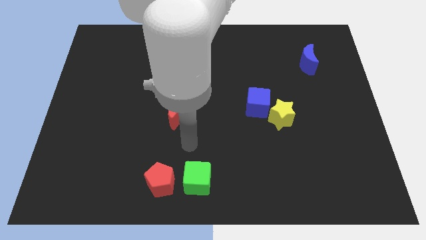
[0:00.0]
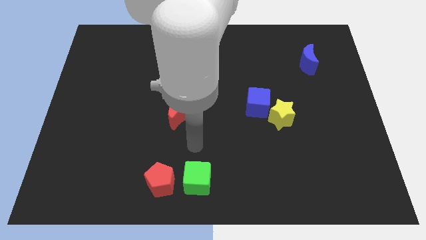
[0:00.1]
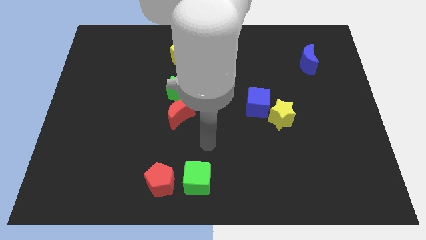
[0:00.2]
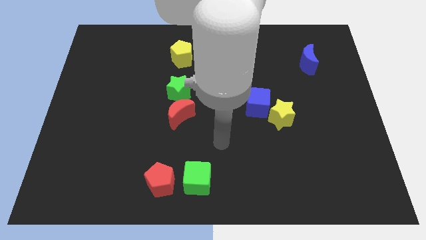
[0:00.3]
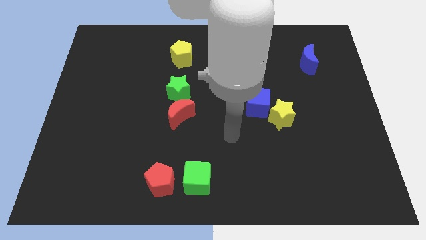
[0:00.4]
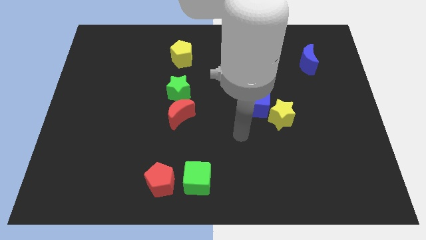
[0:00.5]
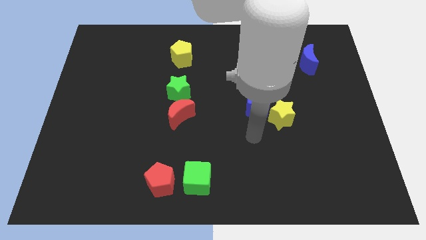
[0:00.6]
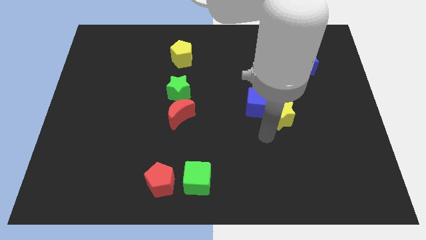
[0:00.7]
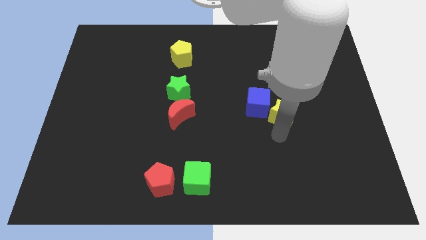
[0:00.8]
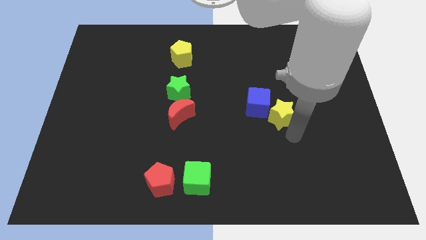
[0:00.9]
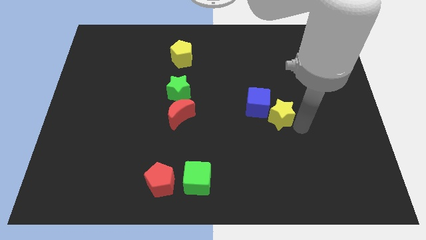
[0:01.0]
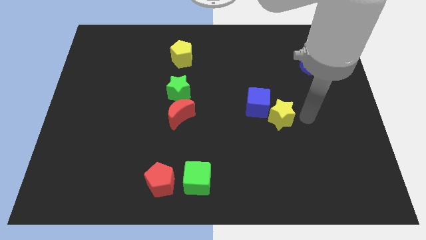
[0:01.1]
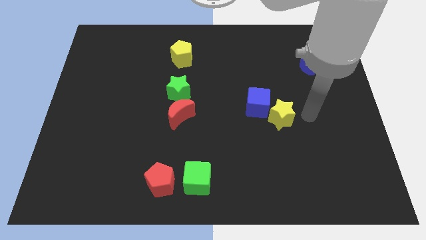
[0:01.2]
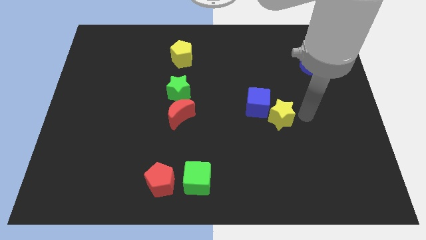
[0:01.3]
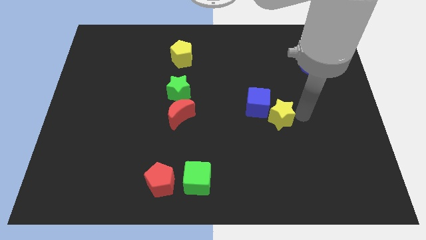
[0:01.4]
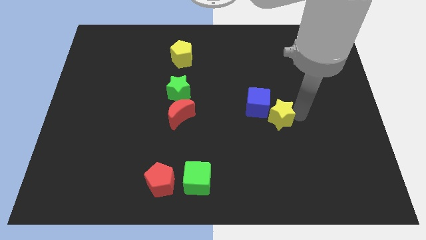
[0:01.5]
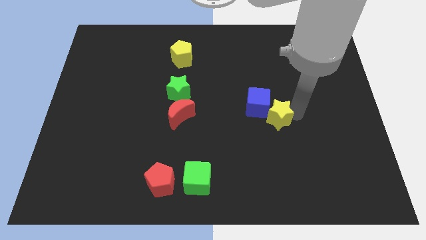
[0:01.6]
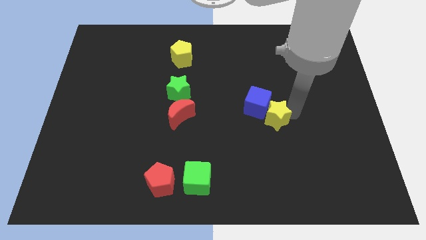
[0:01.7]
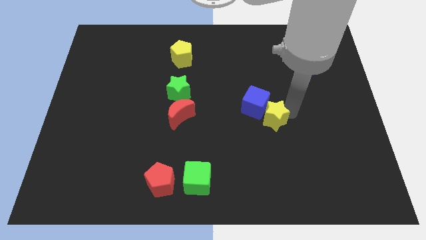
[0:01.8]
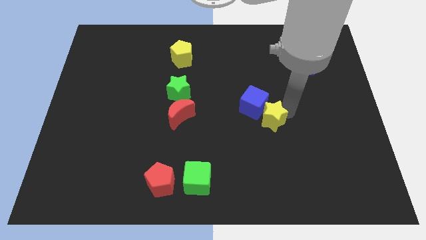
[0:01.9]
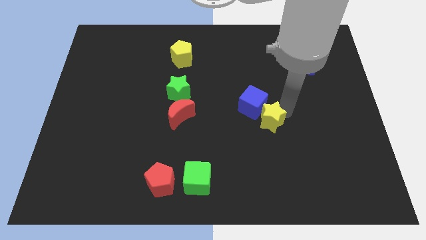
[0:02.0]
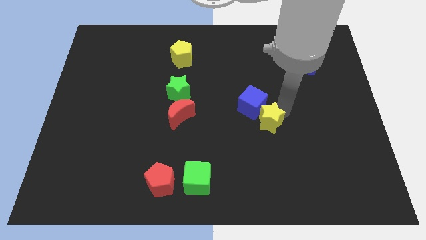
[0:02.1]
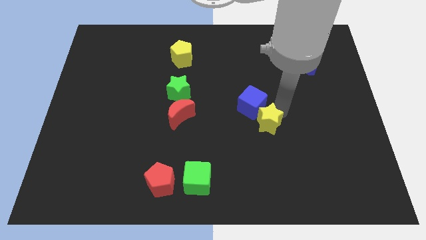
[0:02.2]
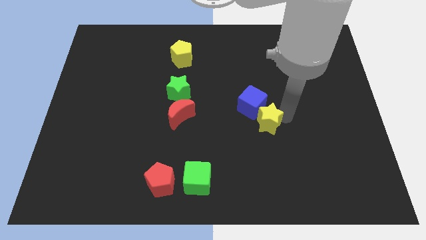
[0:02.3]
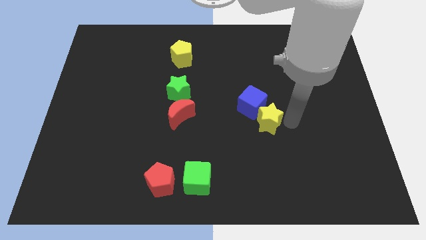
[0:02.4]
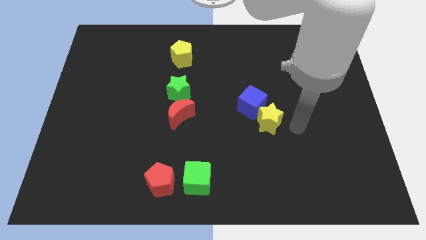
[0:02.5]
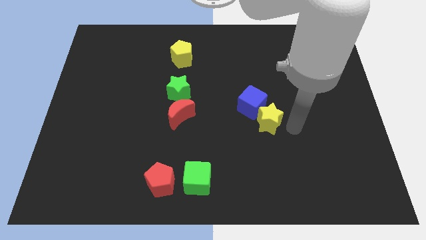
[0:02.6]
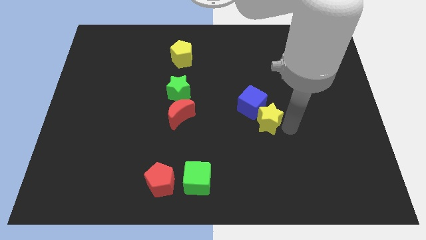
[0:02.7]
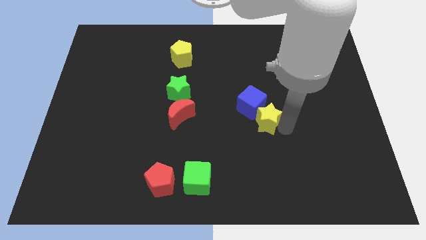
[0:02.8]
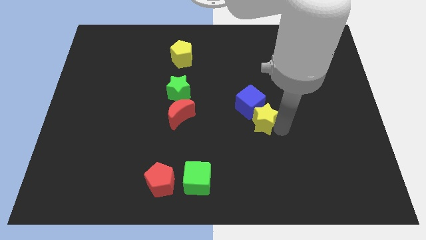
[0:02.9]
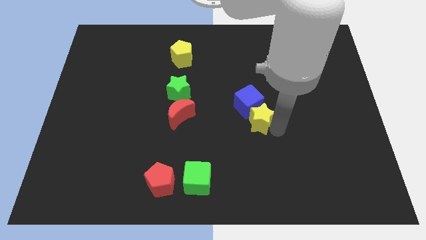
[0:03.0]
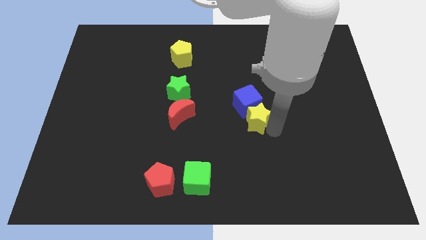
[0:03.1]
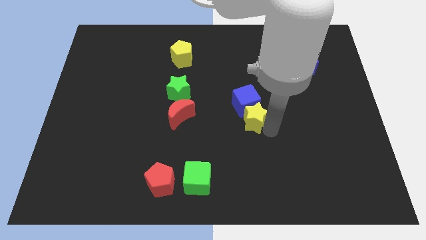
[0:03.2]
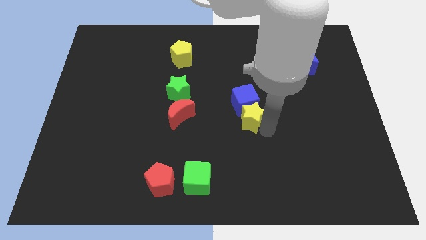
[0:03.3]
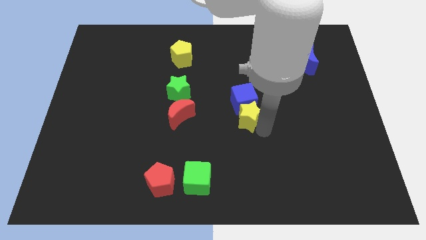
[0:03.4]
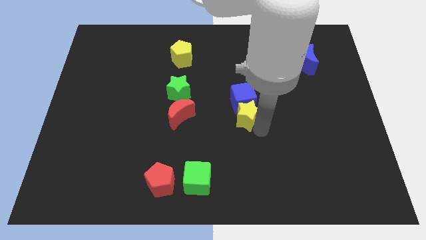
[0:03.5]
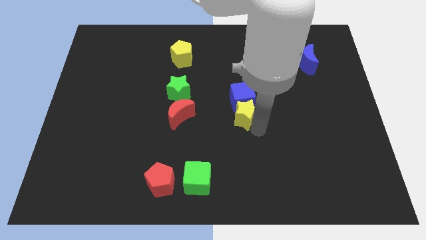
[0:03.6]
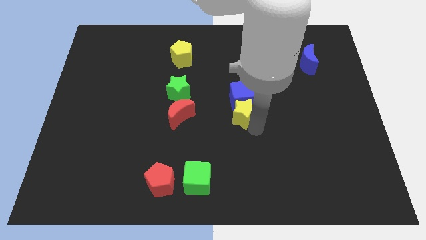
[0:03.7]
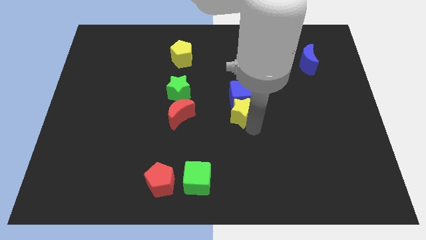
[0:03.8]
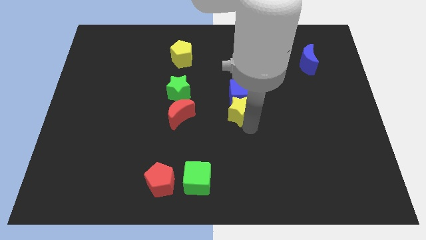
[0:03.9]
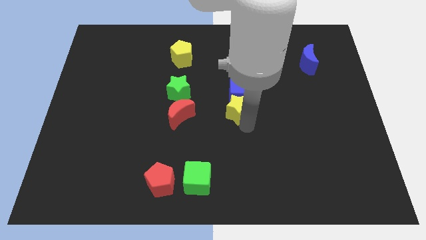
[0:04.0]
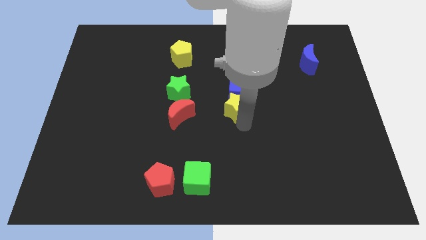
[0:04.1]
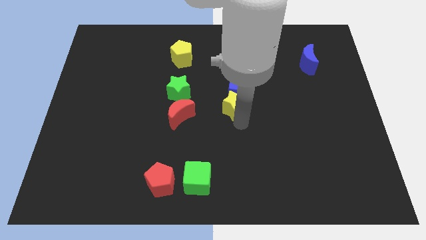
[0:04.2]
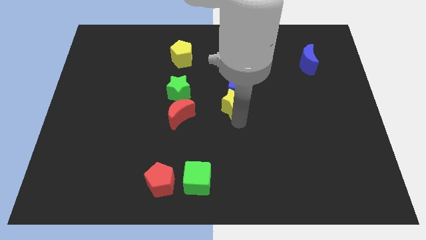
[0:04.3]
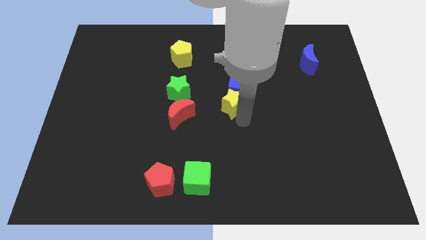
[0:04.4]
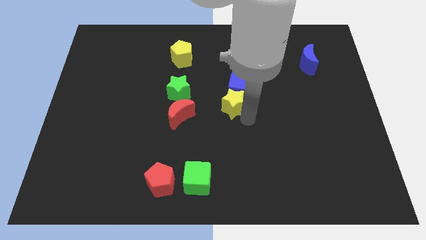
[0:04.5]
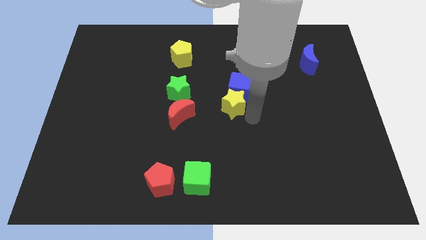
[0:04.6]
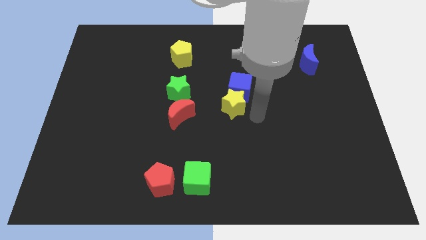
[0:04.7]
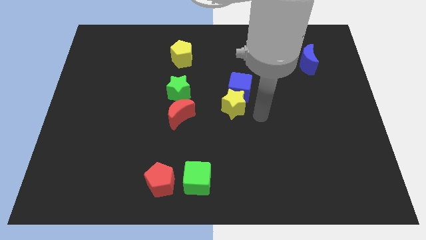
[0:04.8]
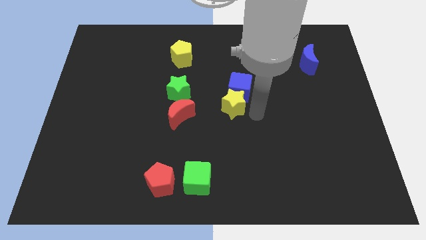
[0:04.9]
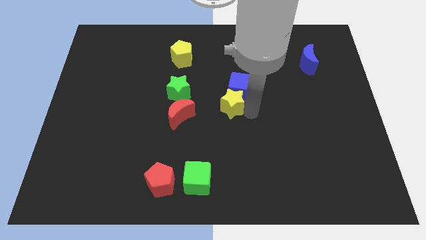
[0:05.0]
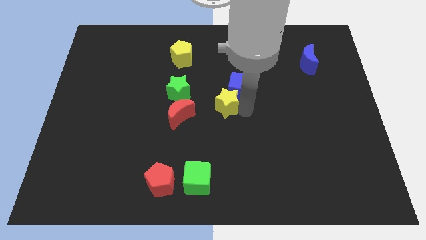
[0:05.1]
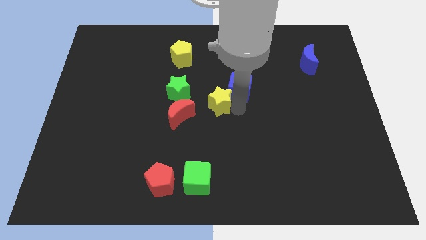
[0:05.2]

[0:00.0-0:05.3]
move the yellow star diagonally up and to the right of the red moon

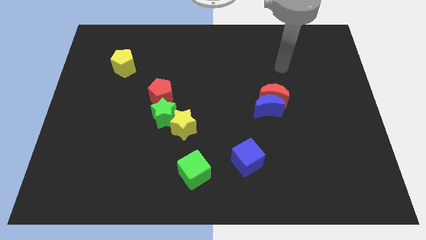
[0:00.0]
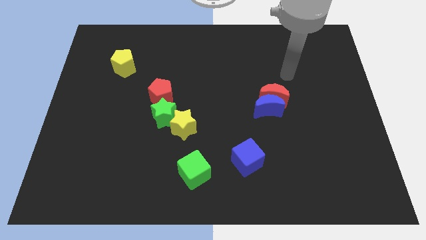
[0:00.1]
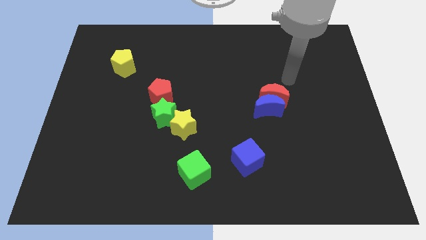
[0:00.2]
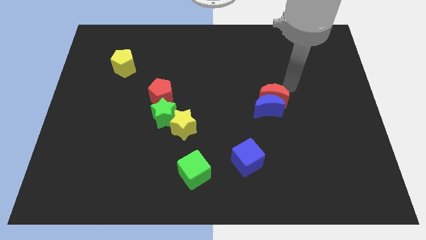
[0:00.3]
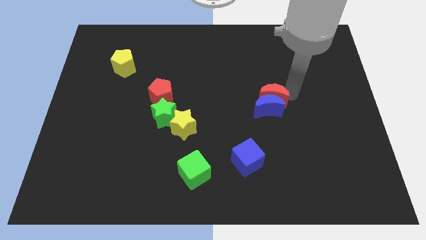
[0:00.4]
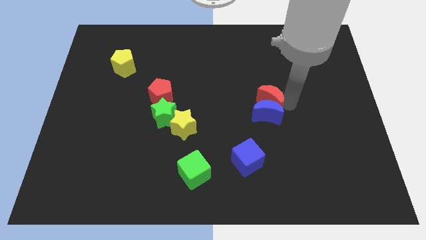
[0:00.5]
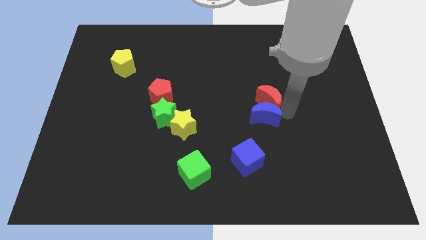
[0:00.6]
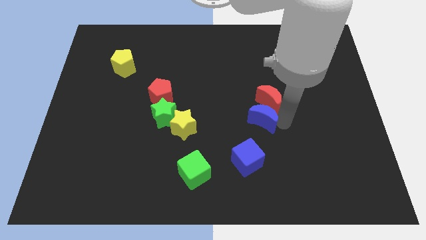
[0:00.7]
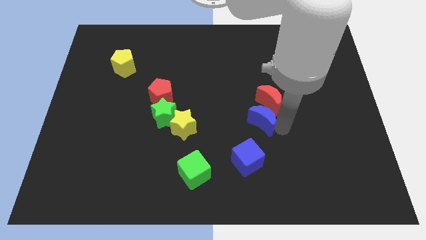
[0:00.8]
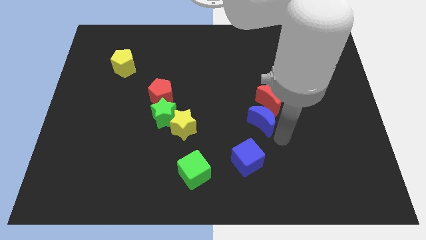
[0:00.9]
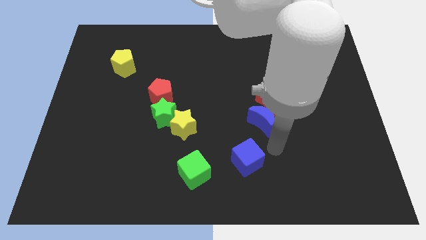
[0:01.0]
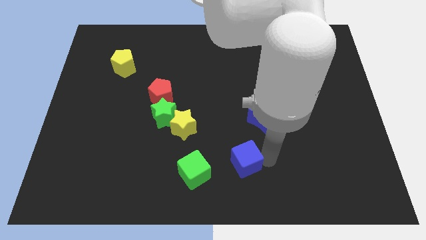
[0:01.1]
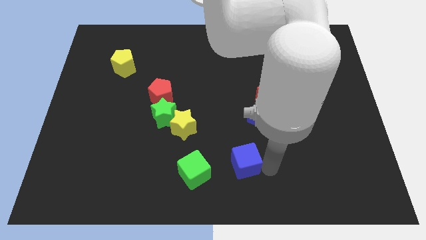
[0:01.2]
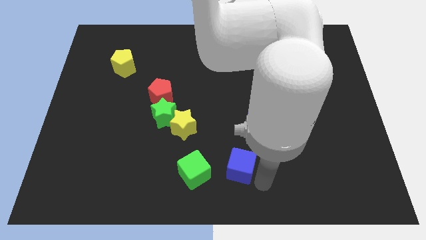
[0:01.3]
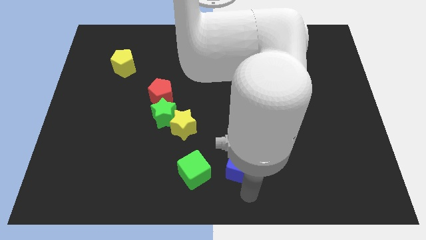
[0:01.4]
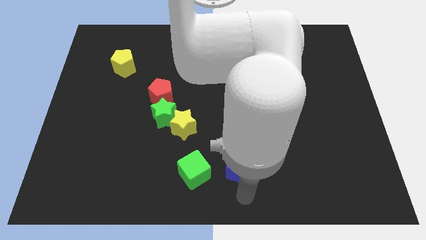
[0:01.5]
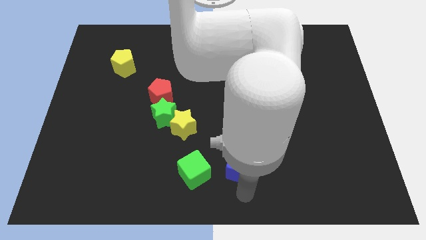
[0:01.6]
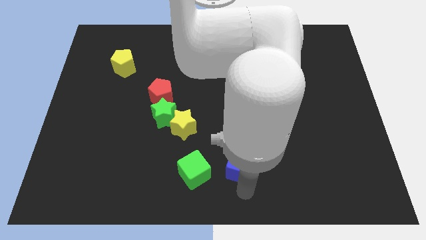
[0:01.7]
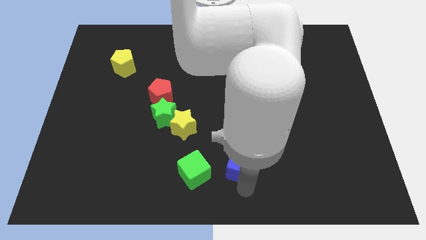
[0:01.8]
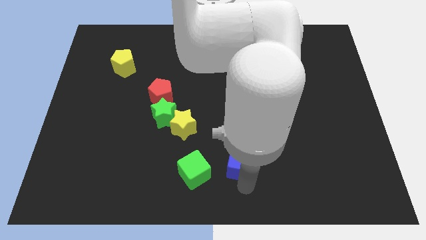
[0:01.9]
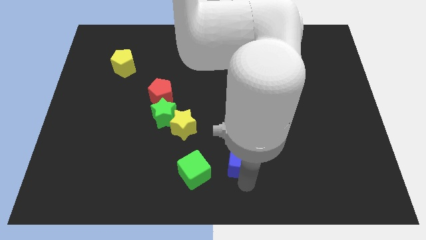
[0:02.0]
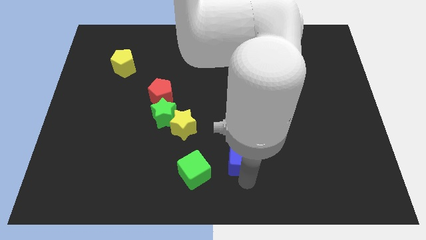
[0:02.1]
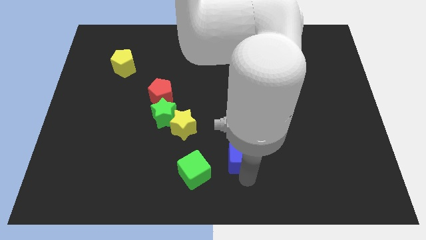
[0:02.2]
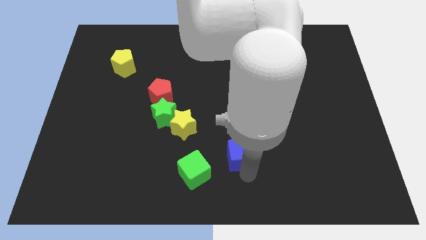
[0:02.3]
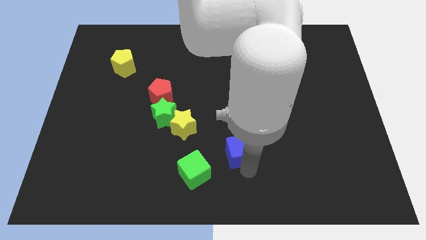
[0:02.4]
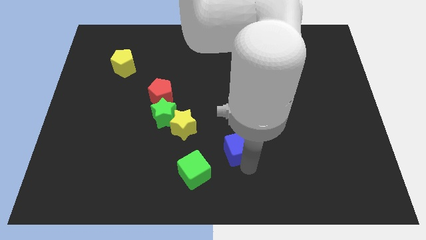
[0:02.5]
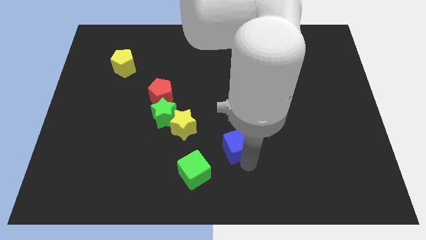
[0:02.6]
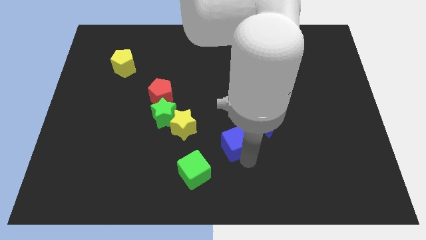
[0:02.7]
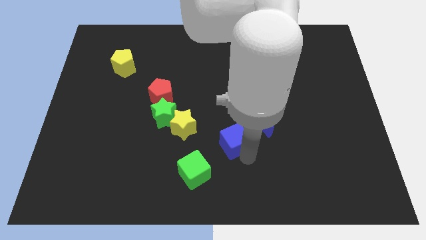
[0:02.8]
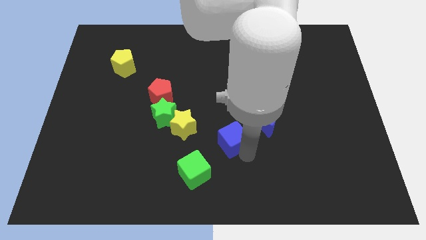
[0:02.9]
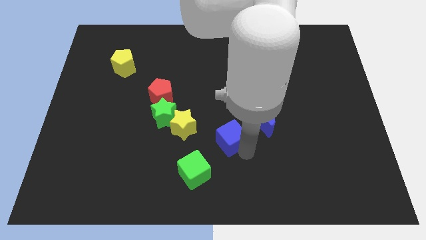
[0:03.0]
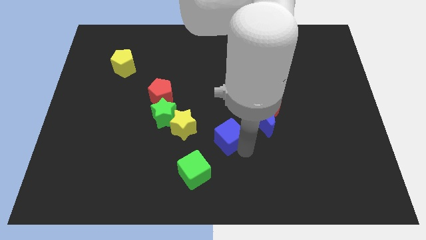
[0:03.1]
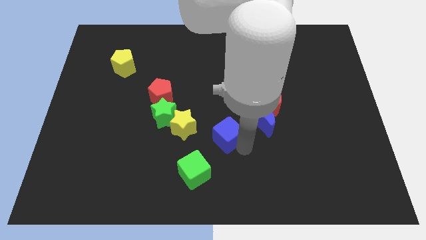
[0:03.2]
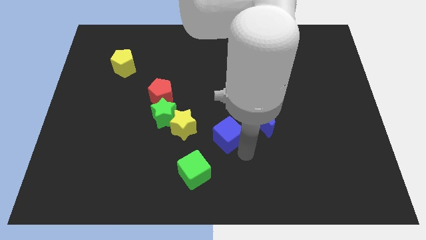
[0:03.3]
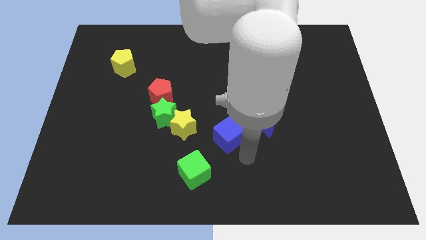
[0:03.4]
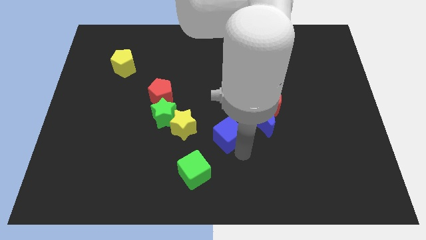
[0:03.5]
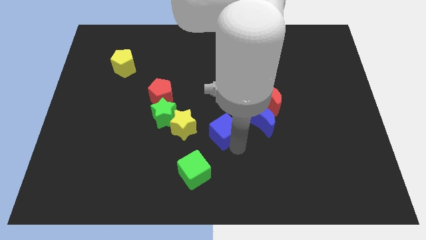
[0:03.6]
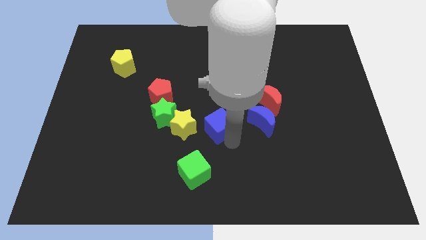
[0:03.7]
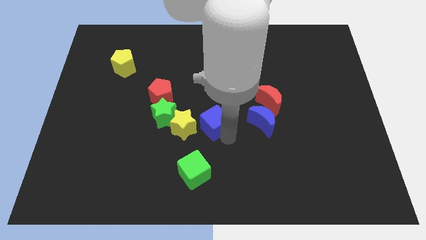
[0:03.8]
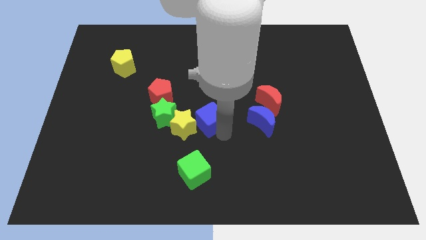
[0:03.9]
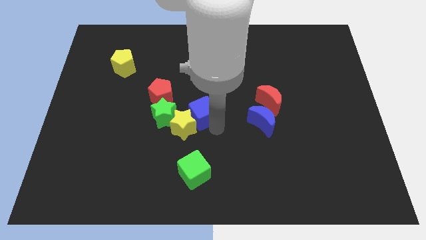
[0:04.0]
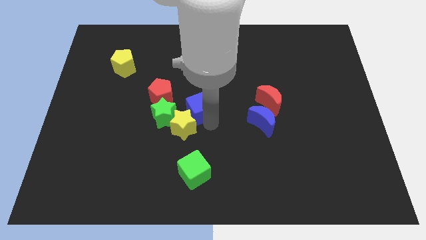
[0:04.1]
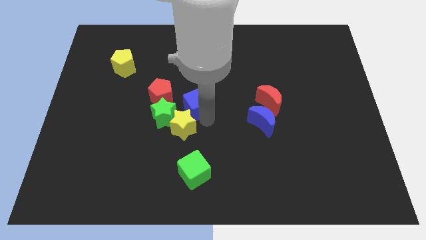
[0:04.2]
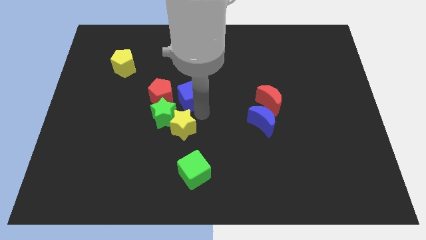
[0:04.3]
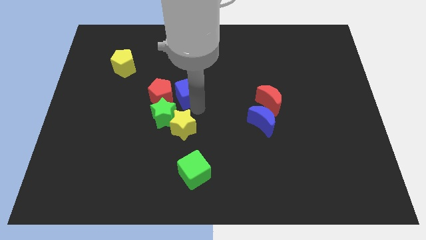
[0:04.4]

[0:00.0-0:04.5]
slide the blue cube diagonally up and to the right of the red pentagon
